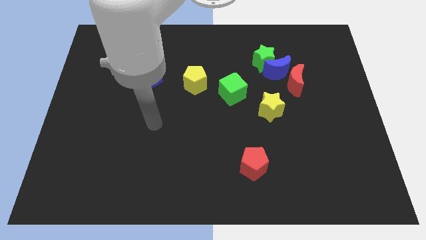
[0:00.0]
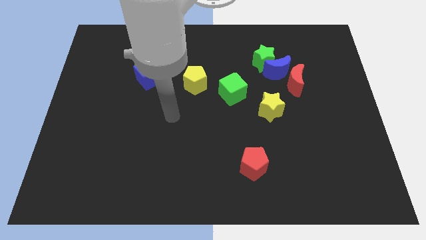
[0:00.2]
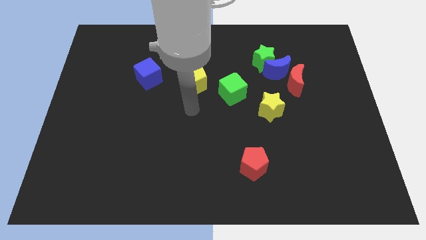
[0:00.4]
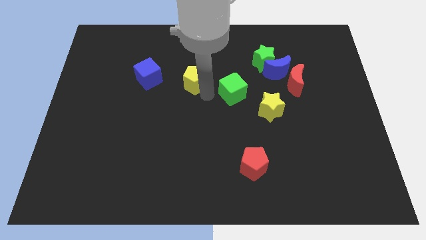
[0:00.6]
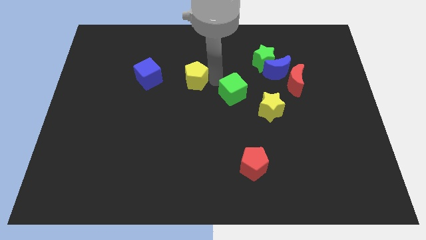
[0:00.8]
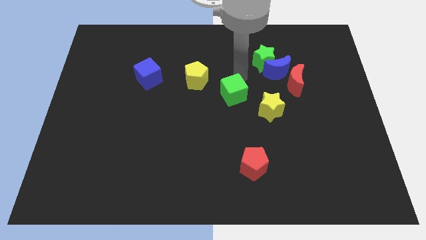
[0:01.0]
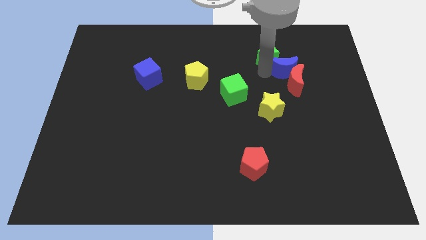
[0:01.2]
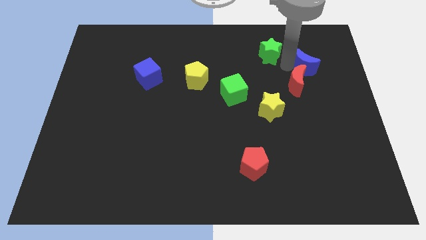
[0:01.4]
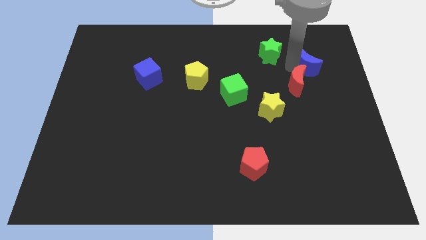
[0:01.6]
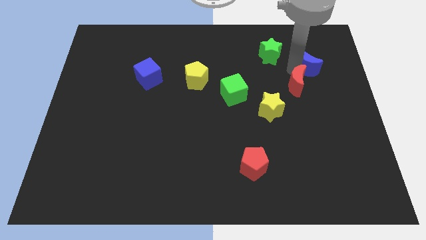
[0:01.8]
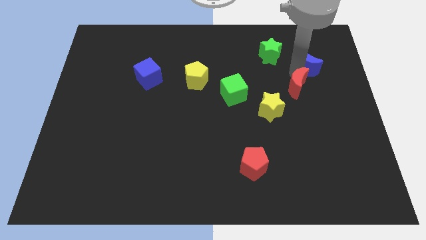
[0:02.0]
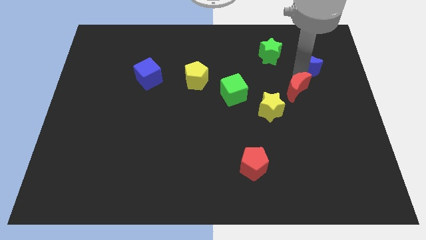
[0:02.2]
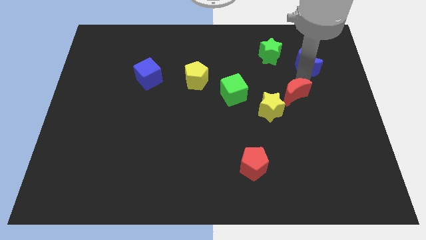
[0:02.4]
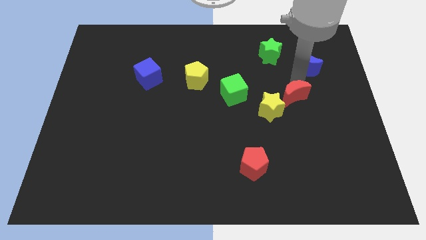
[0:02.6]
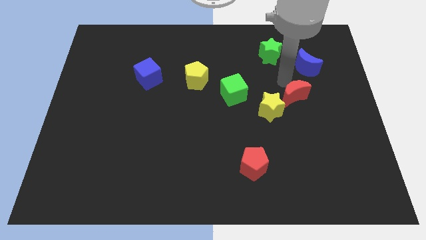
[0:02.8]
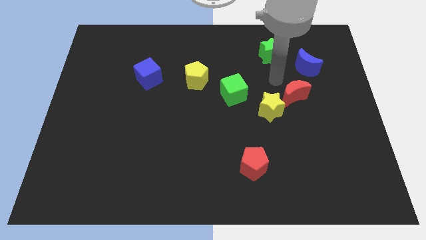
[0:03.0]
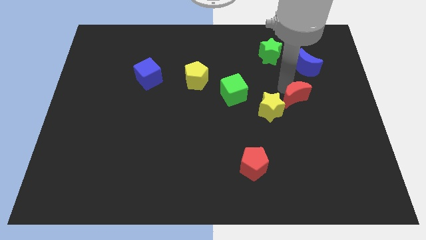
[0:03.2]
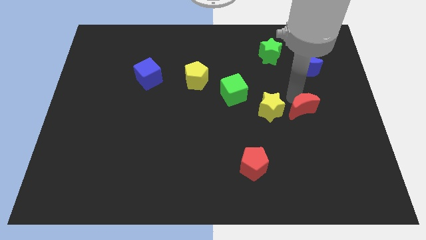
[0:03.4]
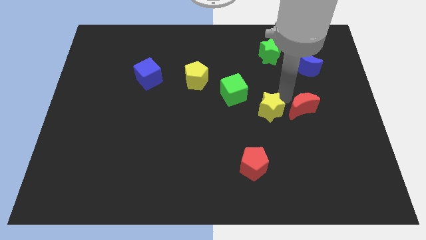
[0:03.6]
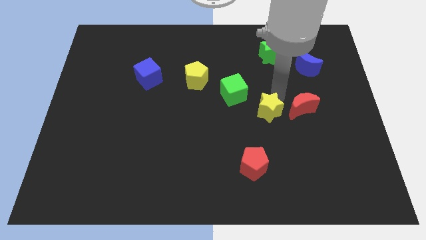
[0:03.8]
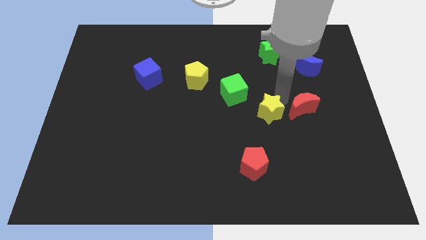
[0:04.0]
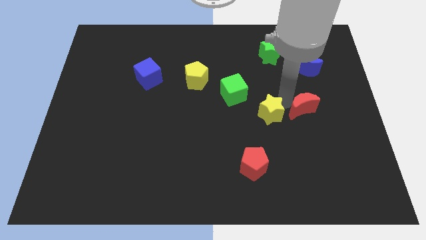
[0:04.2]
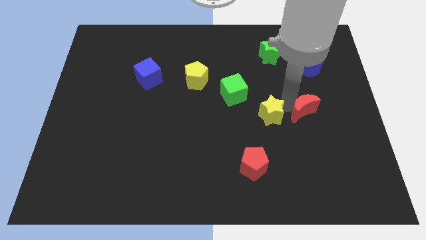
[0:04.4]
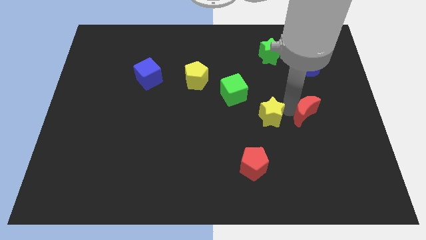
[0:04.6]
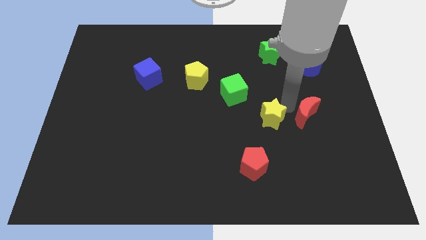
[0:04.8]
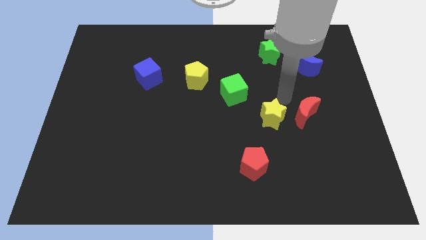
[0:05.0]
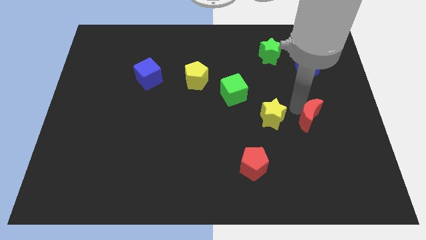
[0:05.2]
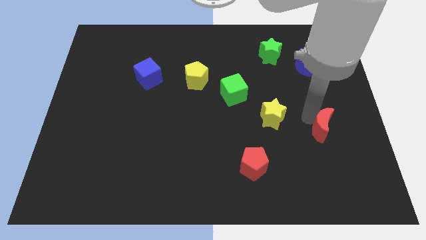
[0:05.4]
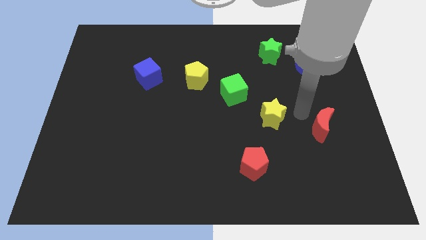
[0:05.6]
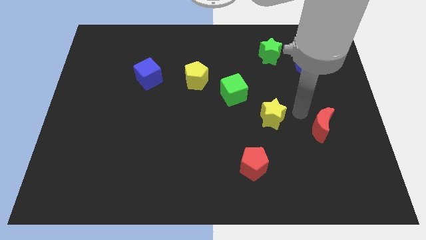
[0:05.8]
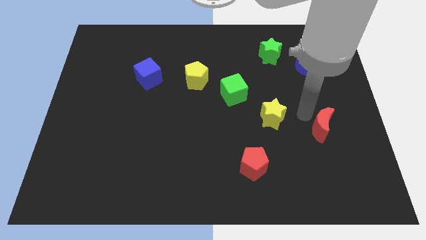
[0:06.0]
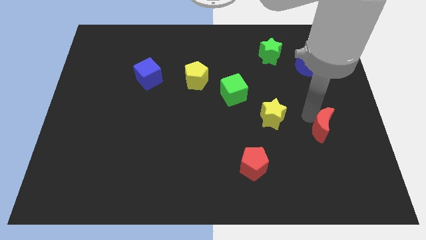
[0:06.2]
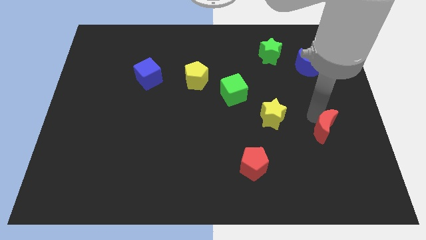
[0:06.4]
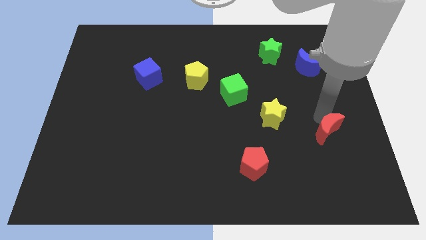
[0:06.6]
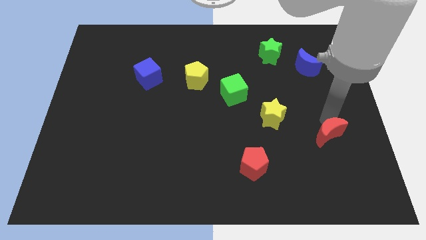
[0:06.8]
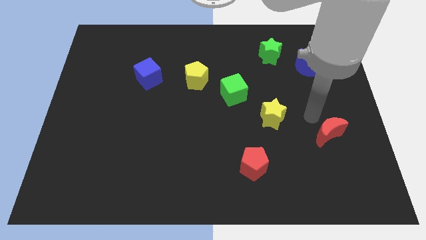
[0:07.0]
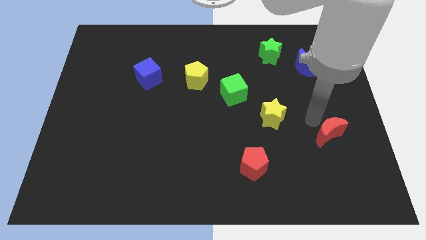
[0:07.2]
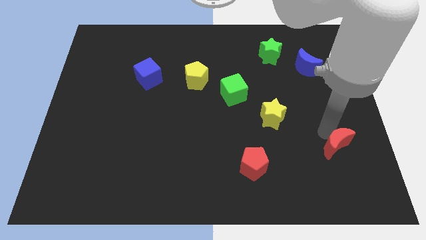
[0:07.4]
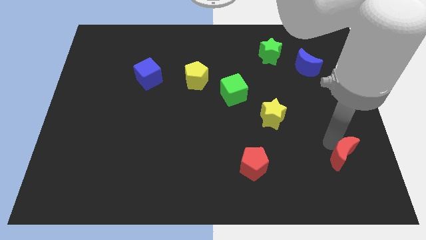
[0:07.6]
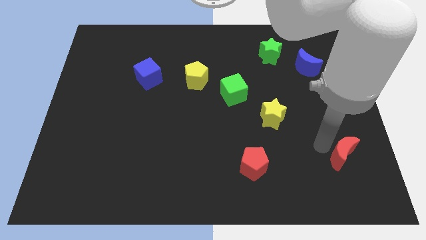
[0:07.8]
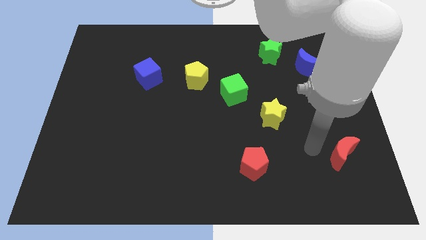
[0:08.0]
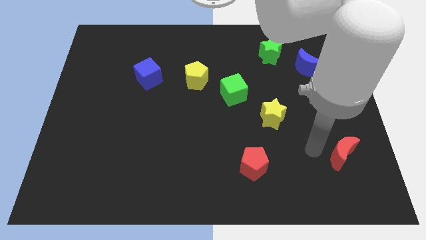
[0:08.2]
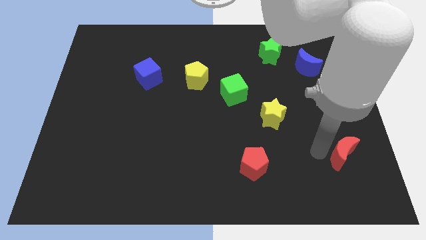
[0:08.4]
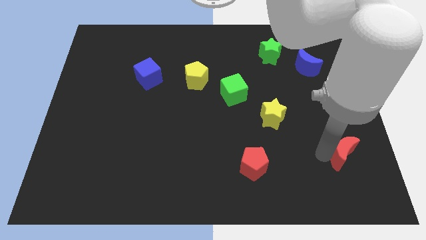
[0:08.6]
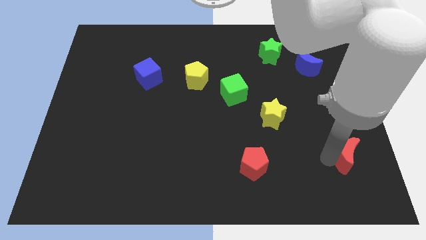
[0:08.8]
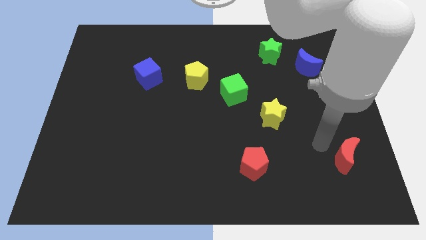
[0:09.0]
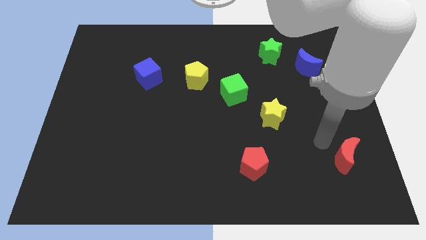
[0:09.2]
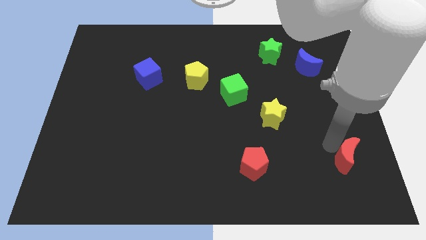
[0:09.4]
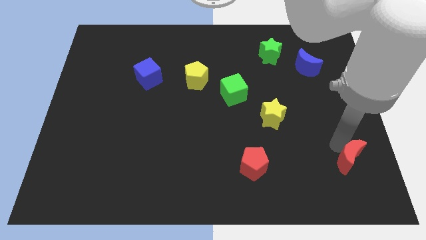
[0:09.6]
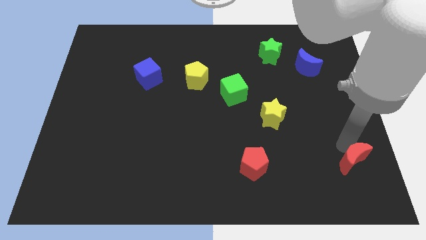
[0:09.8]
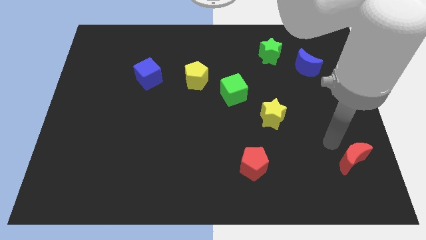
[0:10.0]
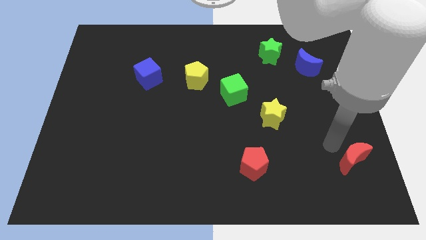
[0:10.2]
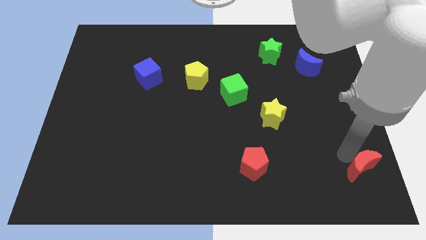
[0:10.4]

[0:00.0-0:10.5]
move the red moon to the lower right corner

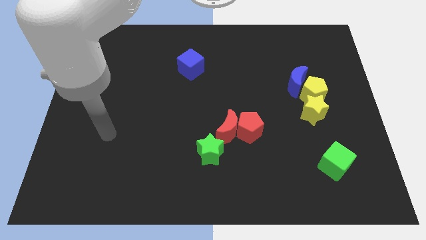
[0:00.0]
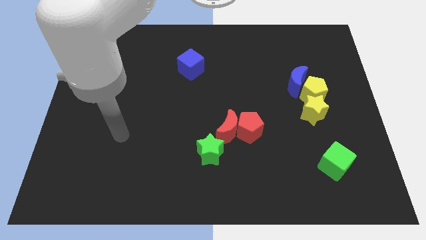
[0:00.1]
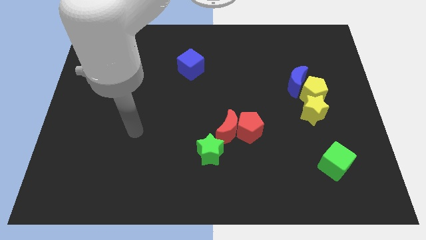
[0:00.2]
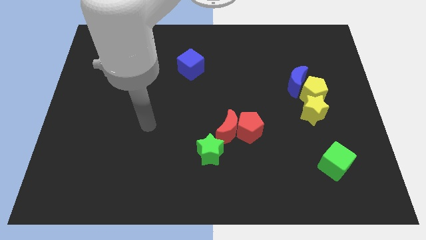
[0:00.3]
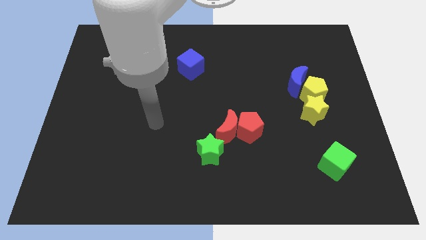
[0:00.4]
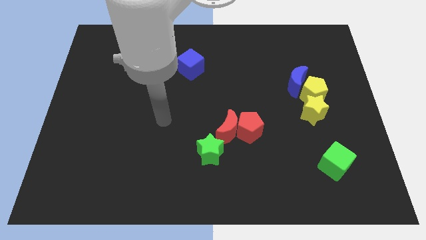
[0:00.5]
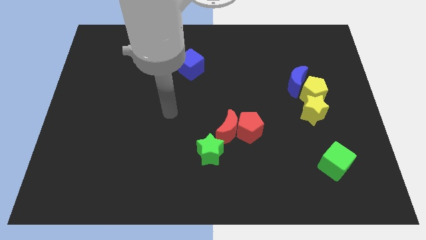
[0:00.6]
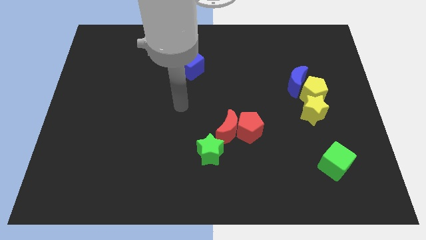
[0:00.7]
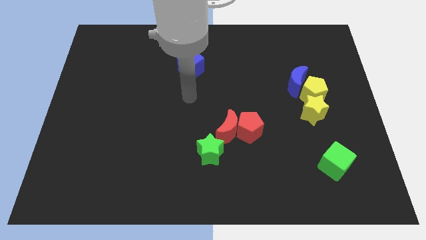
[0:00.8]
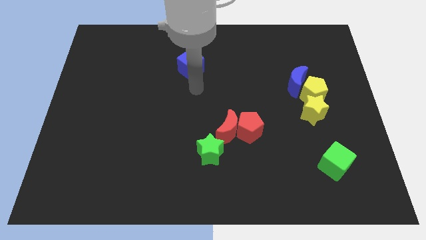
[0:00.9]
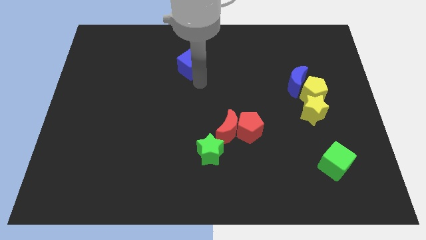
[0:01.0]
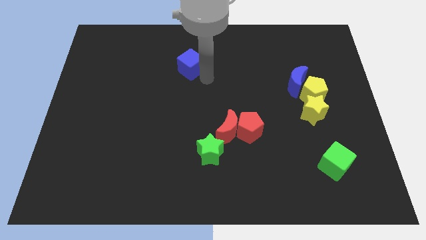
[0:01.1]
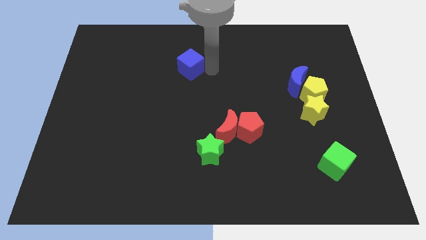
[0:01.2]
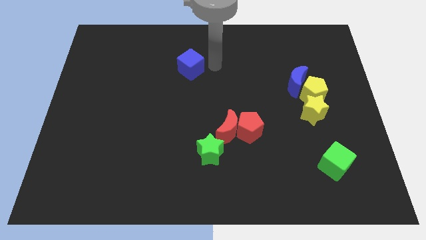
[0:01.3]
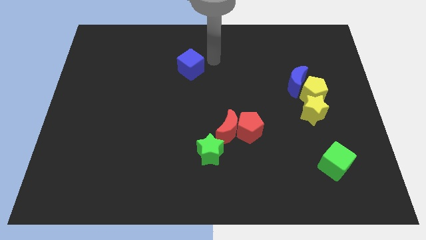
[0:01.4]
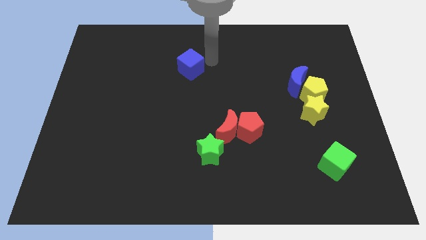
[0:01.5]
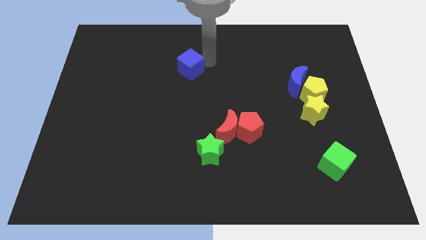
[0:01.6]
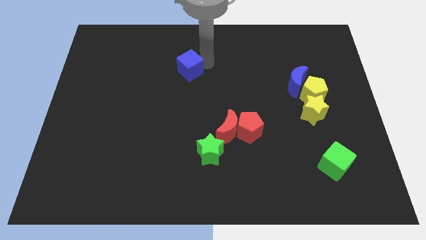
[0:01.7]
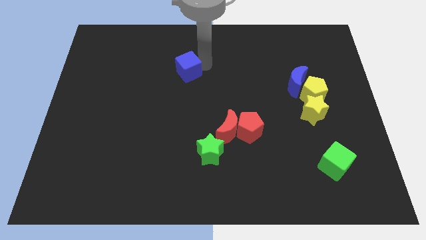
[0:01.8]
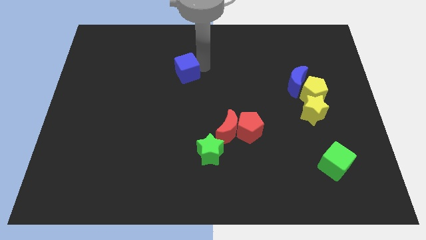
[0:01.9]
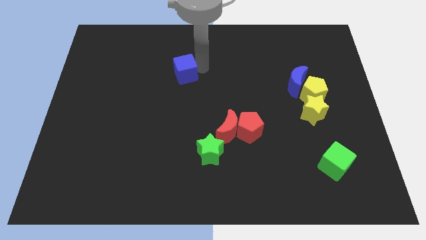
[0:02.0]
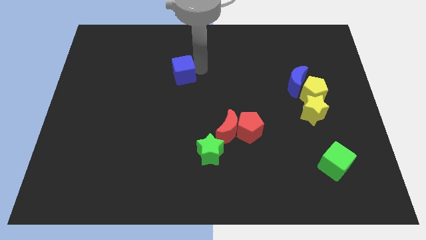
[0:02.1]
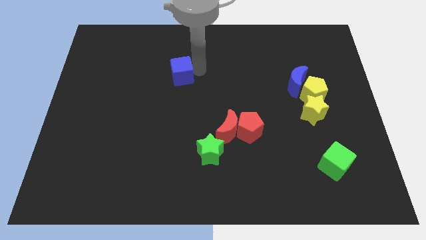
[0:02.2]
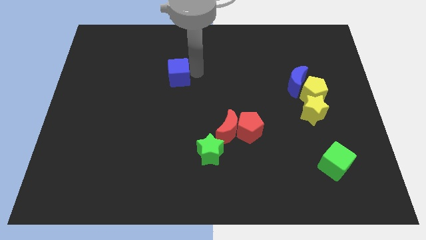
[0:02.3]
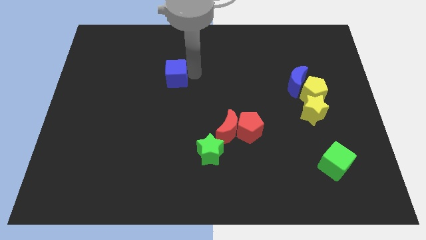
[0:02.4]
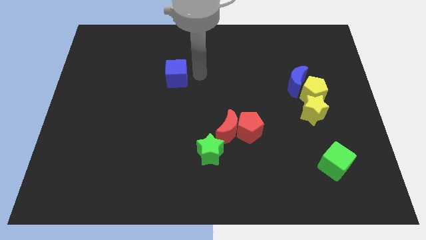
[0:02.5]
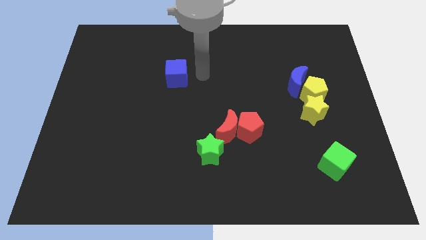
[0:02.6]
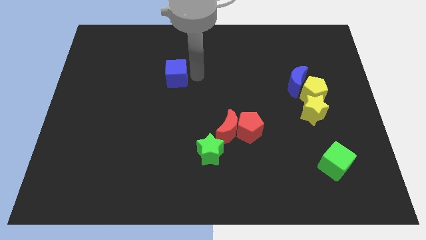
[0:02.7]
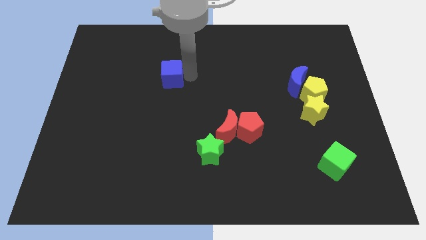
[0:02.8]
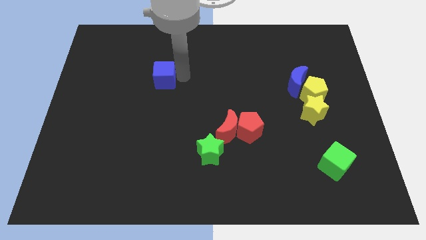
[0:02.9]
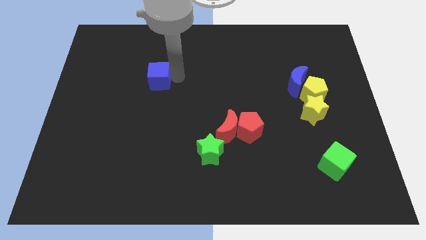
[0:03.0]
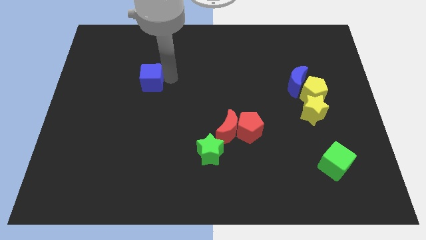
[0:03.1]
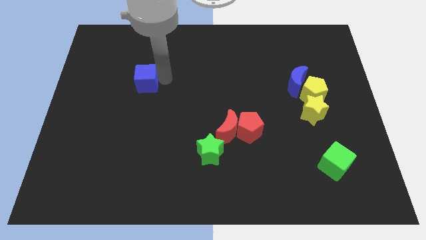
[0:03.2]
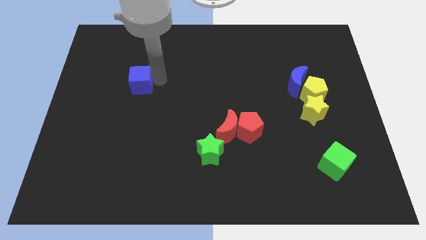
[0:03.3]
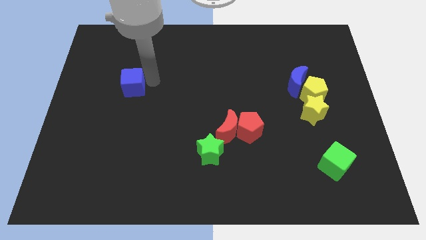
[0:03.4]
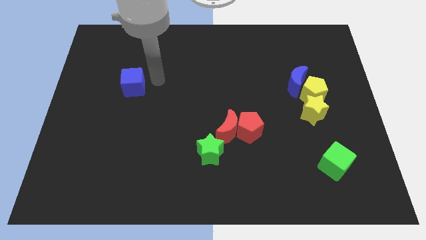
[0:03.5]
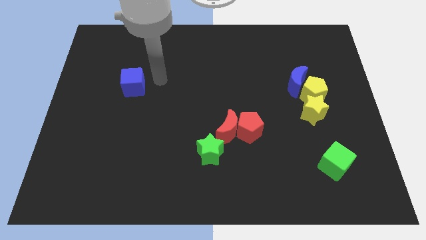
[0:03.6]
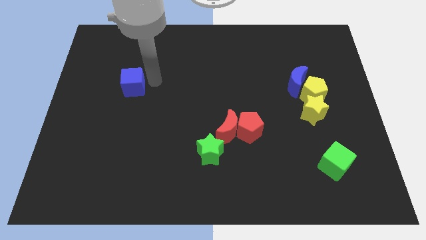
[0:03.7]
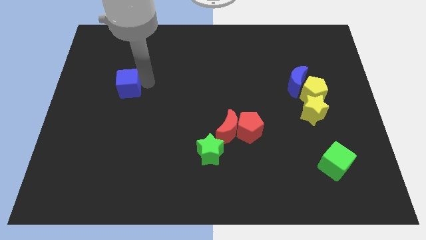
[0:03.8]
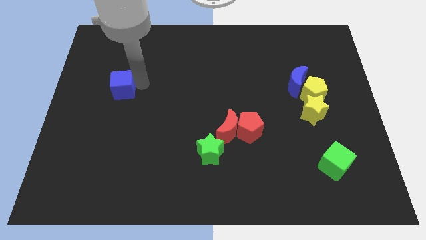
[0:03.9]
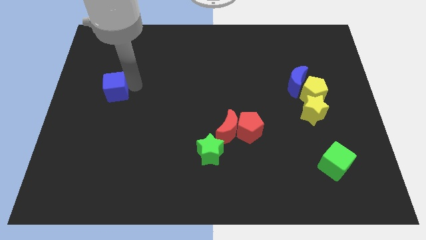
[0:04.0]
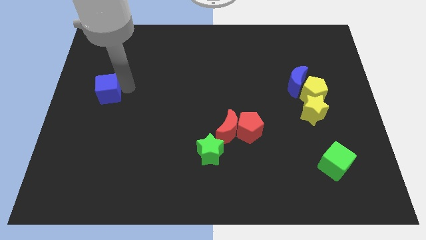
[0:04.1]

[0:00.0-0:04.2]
slide the blue cube to the center left
